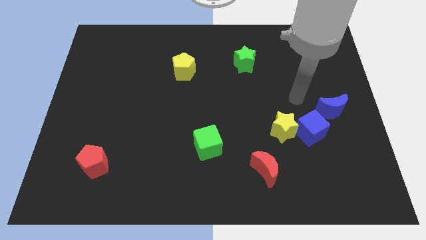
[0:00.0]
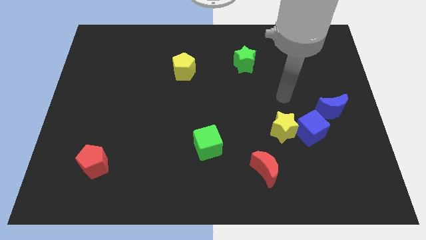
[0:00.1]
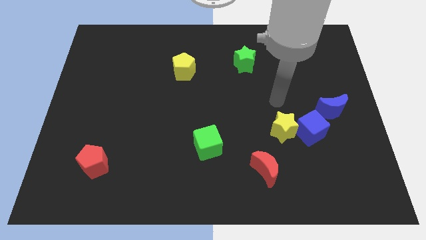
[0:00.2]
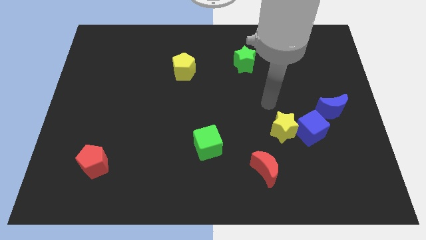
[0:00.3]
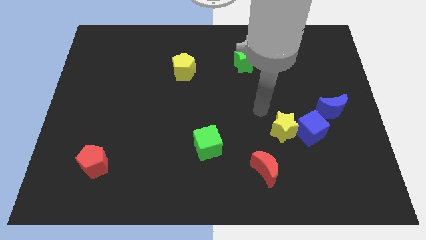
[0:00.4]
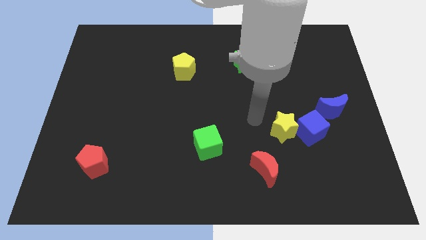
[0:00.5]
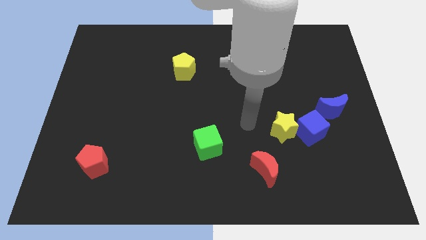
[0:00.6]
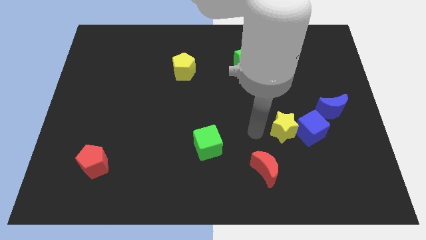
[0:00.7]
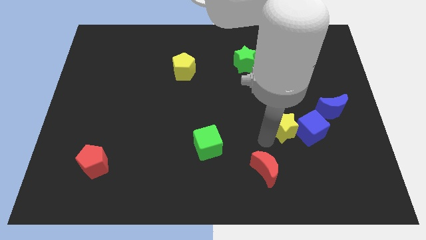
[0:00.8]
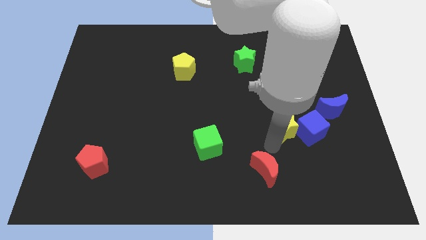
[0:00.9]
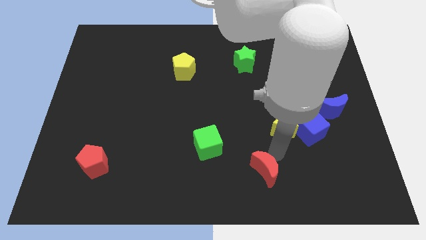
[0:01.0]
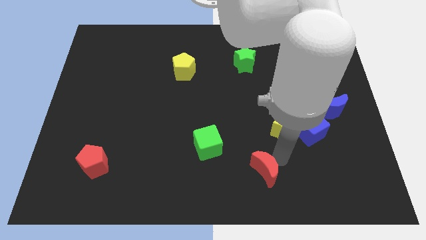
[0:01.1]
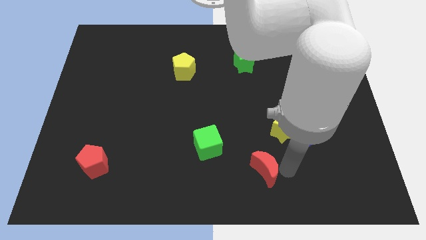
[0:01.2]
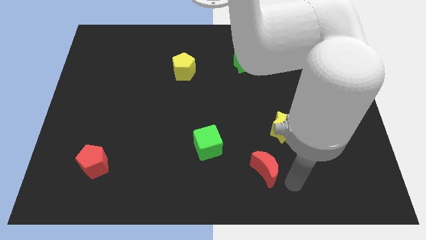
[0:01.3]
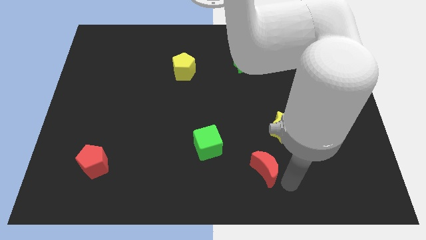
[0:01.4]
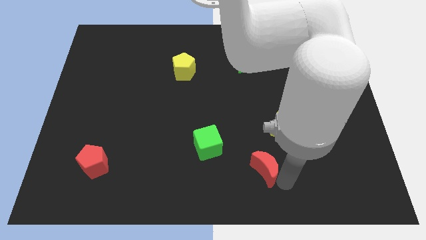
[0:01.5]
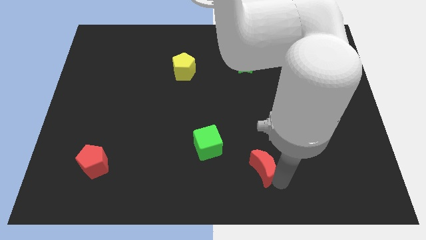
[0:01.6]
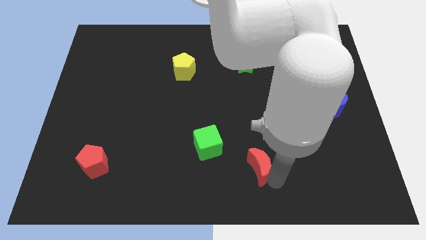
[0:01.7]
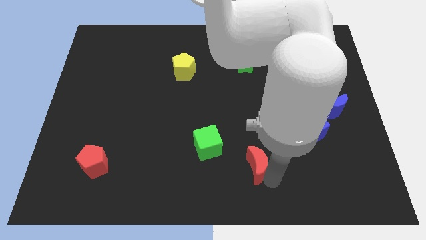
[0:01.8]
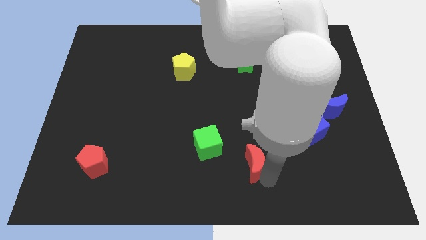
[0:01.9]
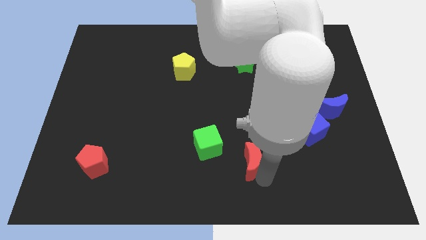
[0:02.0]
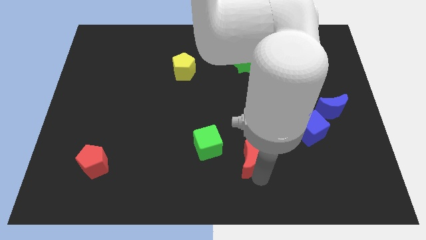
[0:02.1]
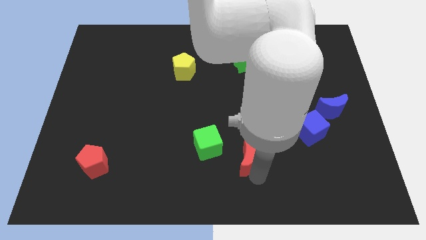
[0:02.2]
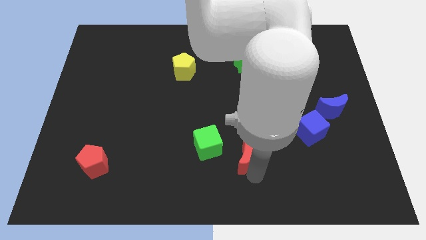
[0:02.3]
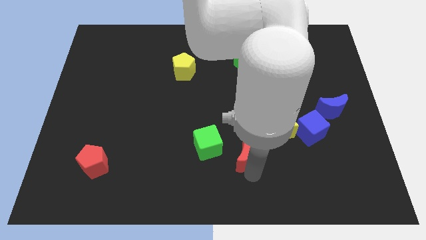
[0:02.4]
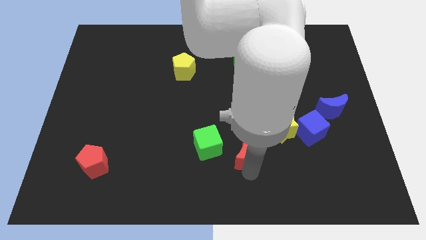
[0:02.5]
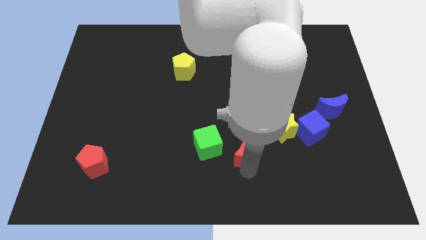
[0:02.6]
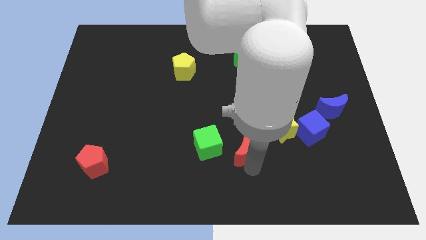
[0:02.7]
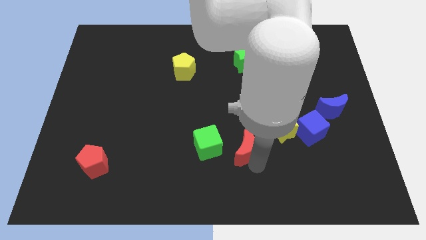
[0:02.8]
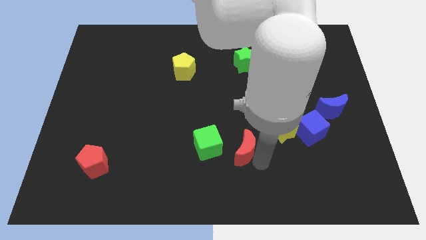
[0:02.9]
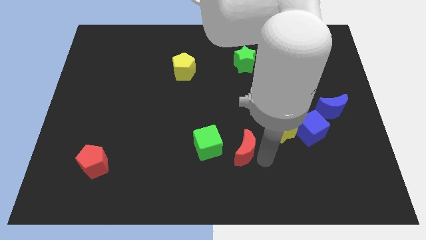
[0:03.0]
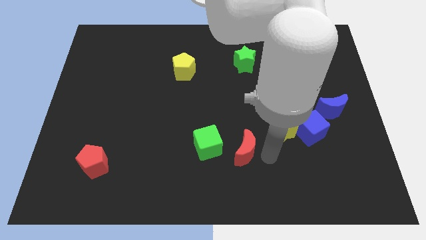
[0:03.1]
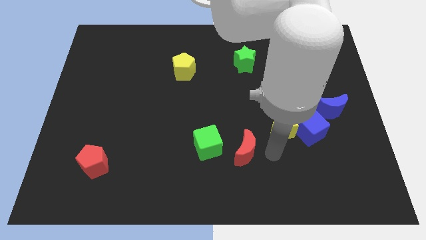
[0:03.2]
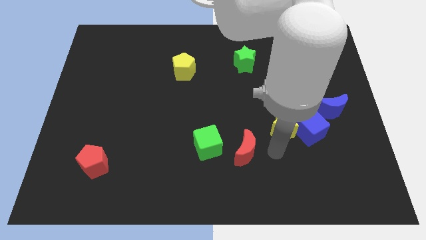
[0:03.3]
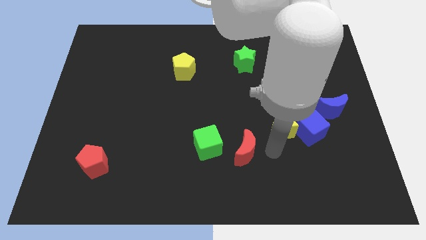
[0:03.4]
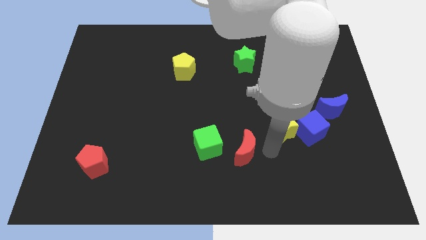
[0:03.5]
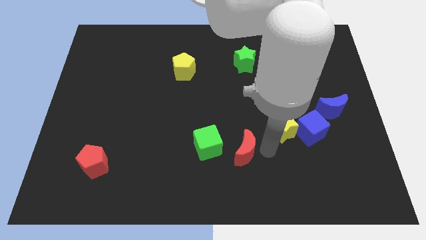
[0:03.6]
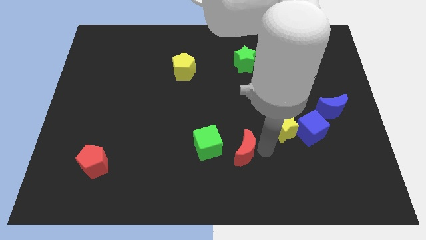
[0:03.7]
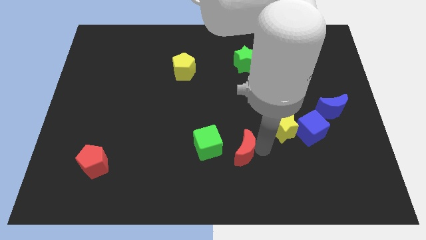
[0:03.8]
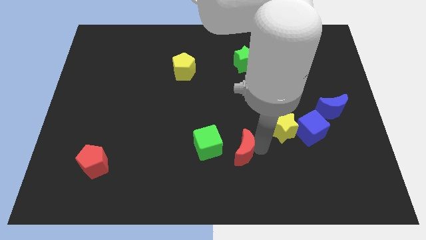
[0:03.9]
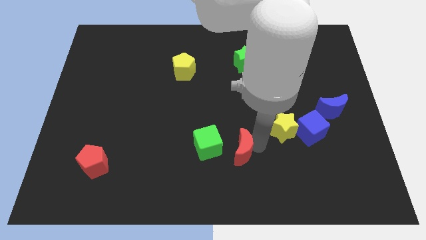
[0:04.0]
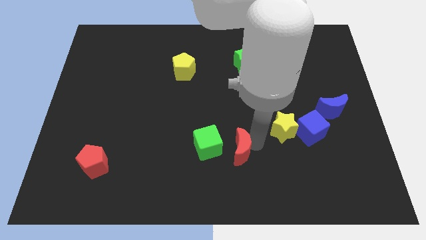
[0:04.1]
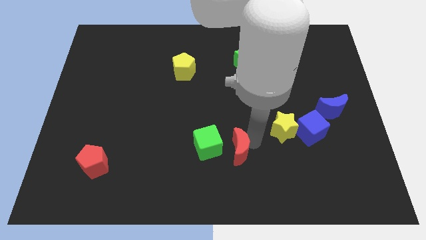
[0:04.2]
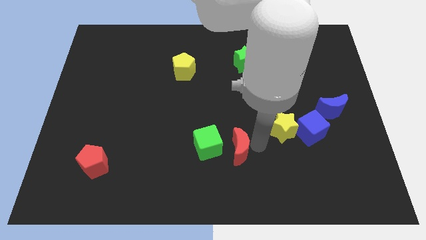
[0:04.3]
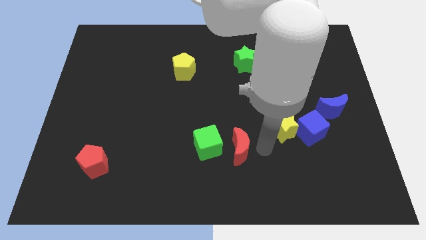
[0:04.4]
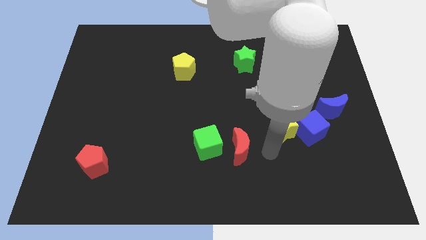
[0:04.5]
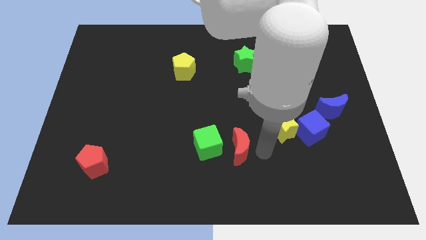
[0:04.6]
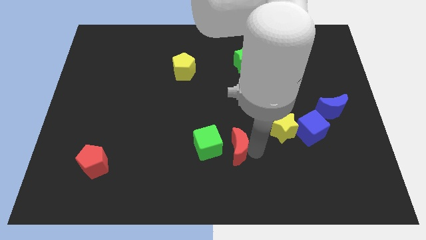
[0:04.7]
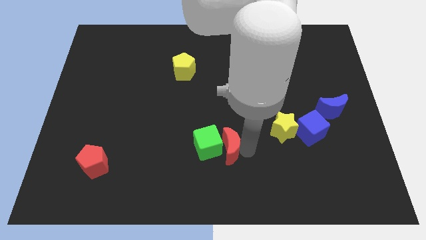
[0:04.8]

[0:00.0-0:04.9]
put the red moon close to the green cube

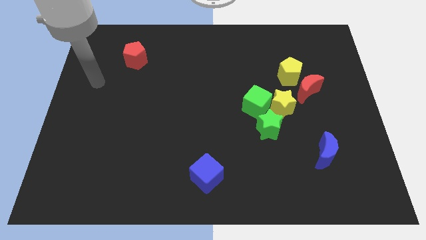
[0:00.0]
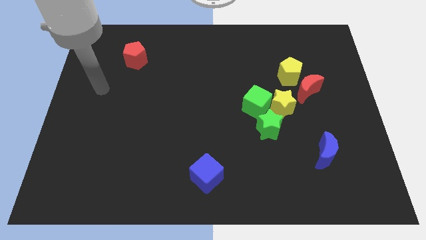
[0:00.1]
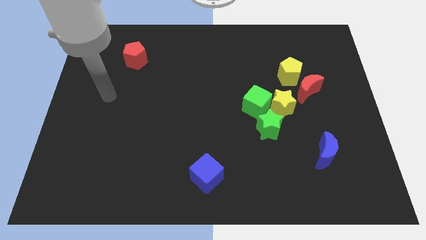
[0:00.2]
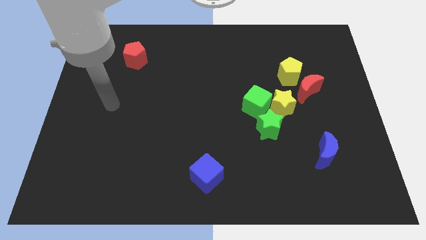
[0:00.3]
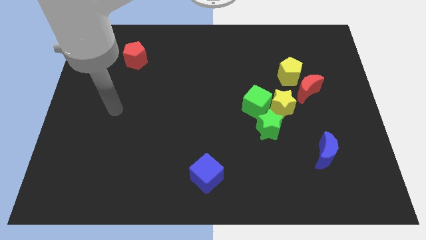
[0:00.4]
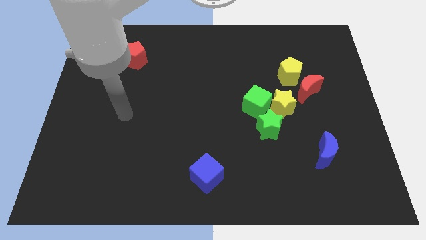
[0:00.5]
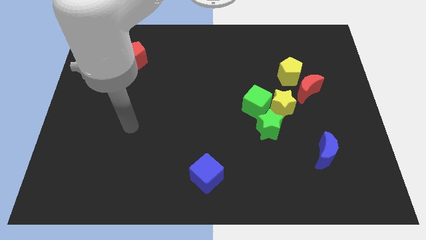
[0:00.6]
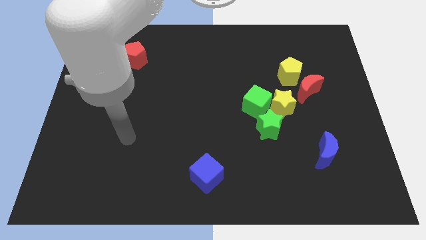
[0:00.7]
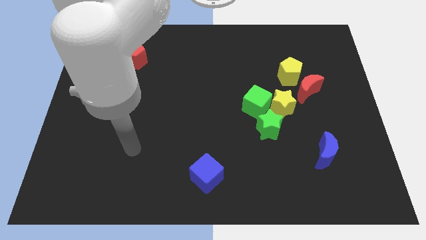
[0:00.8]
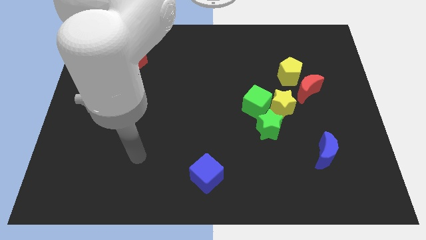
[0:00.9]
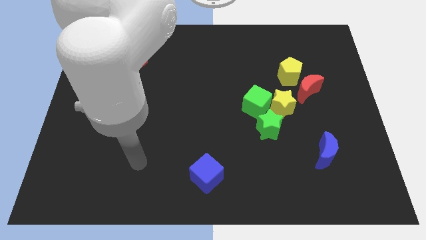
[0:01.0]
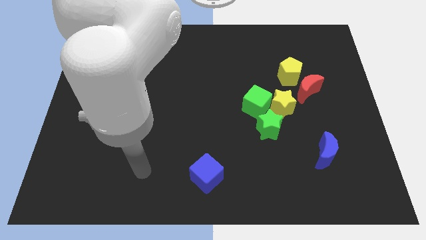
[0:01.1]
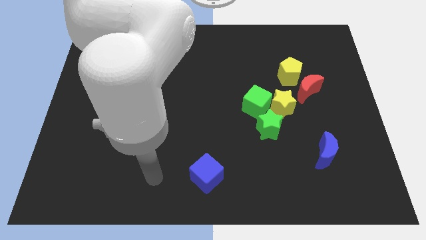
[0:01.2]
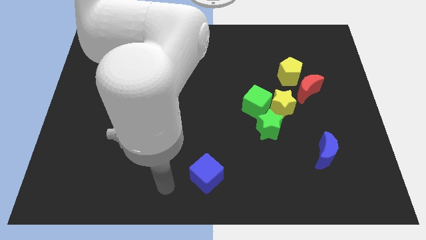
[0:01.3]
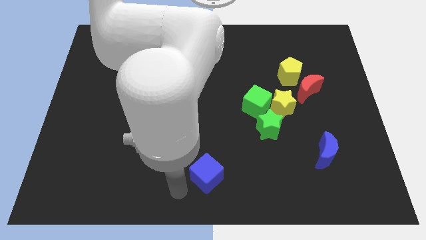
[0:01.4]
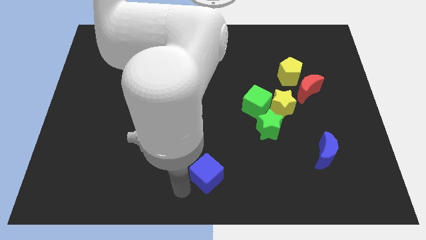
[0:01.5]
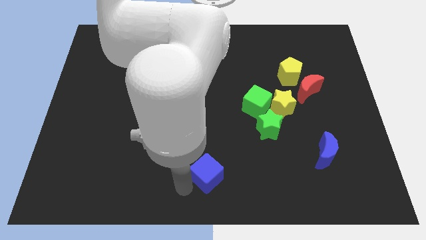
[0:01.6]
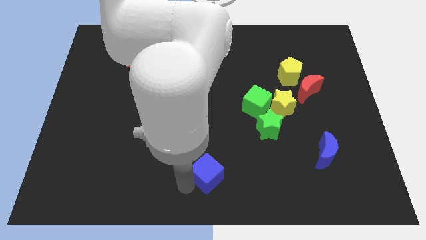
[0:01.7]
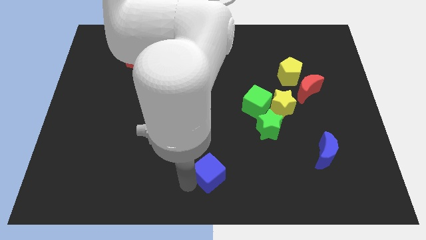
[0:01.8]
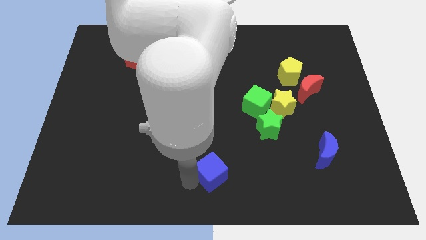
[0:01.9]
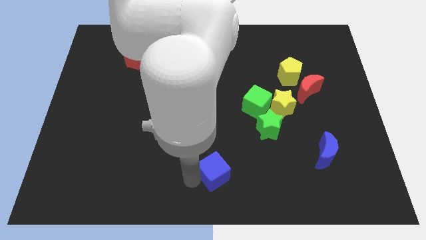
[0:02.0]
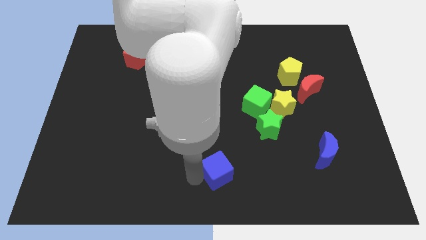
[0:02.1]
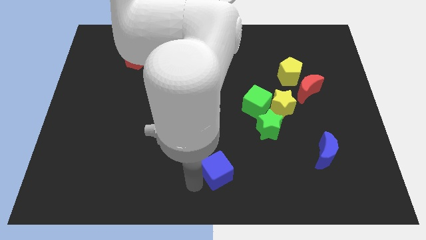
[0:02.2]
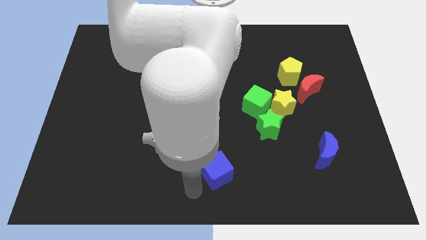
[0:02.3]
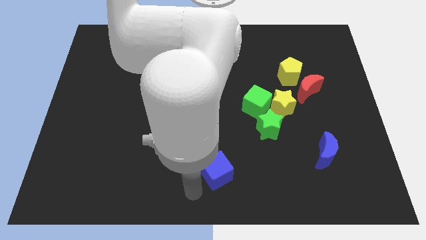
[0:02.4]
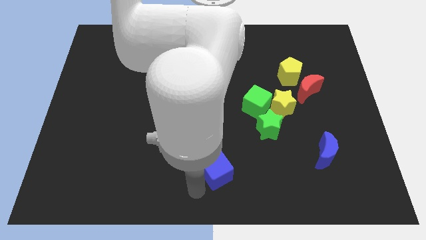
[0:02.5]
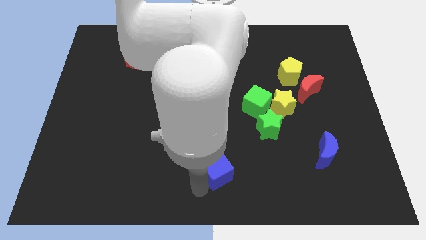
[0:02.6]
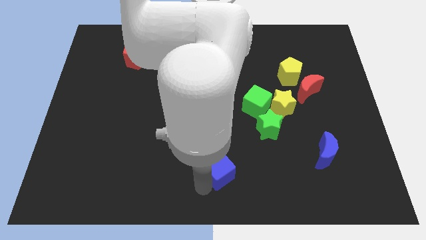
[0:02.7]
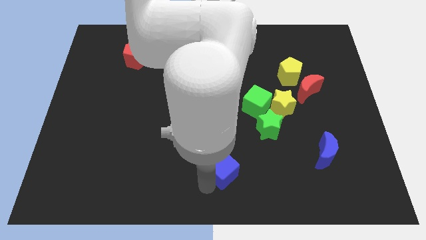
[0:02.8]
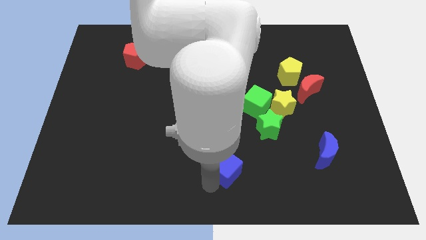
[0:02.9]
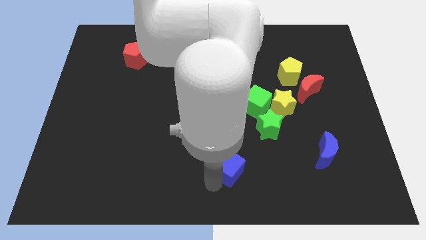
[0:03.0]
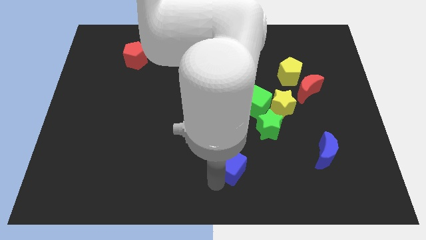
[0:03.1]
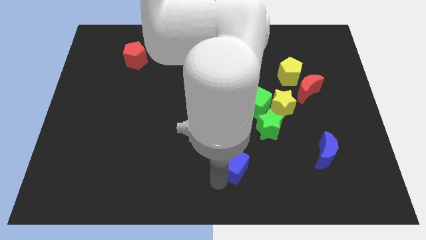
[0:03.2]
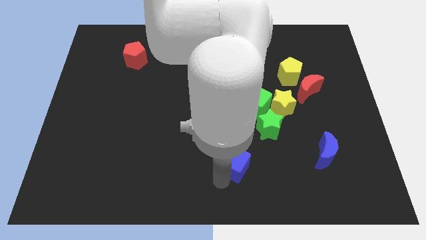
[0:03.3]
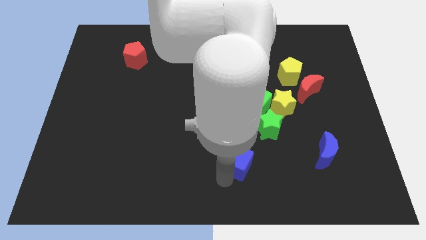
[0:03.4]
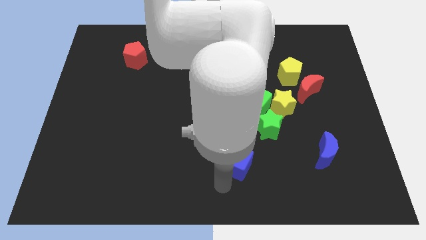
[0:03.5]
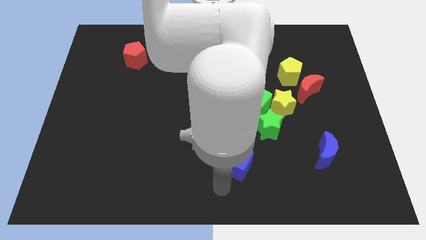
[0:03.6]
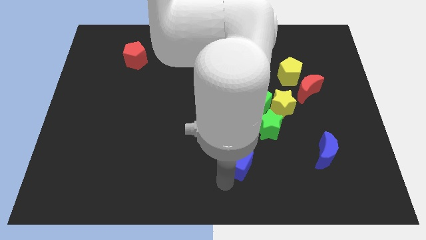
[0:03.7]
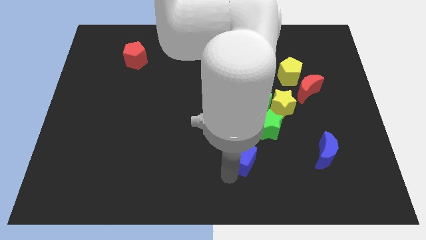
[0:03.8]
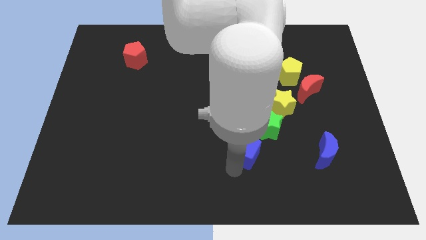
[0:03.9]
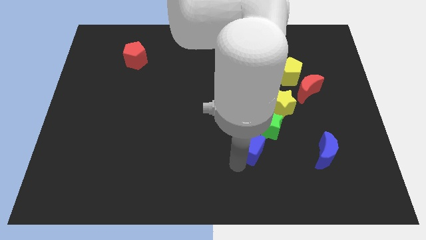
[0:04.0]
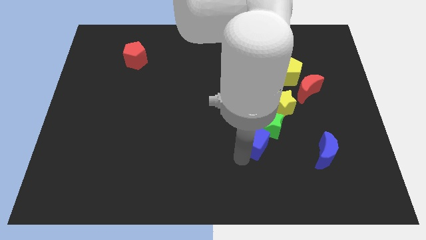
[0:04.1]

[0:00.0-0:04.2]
slide the blue cube close to the green star
